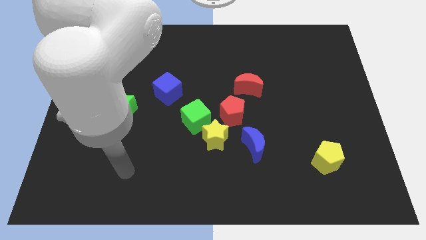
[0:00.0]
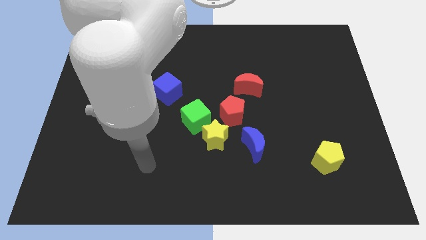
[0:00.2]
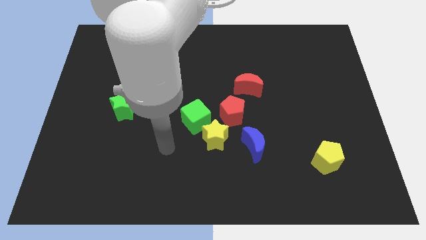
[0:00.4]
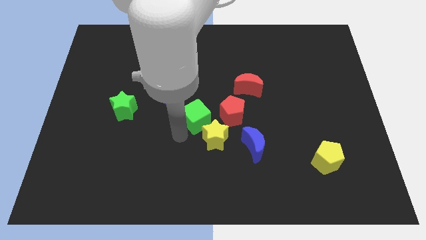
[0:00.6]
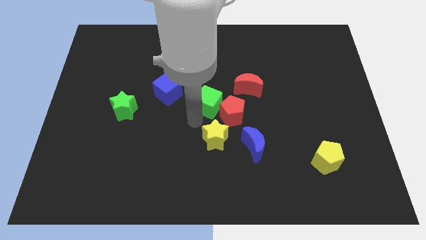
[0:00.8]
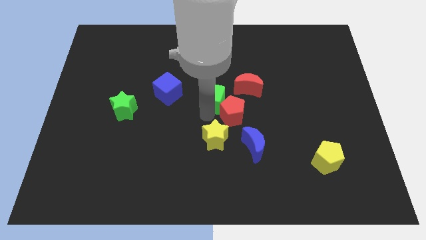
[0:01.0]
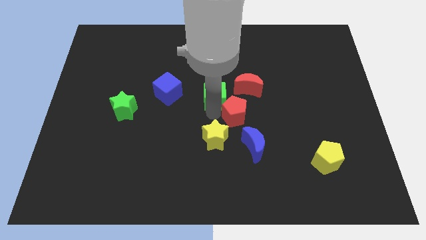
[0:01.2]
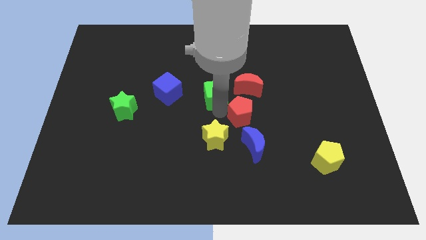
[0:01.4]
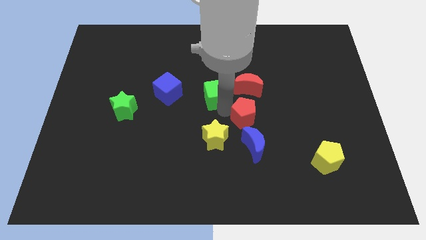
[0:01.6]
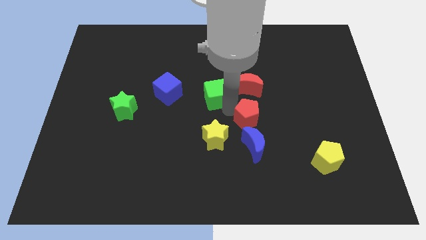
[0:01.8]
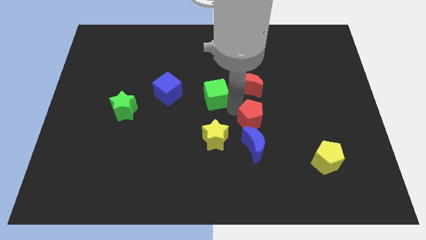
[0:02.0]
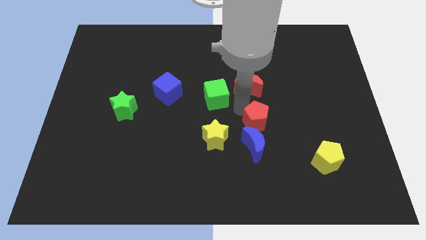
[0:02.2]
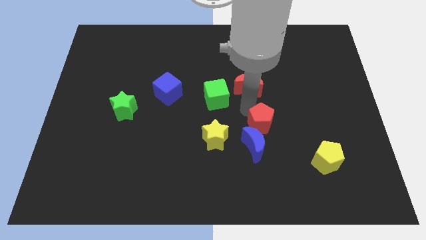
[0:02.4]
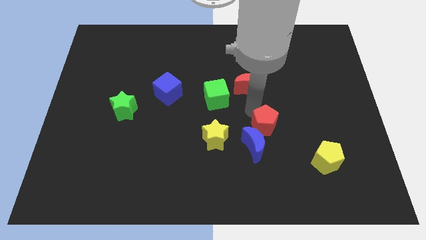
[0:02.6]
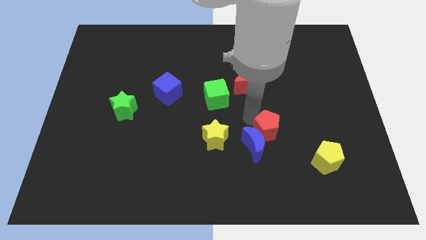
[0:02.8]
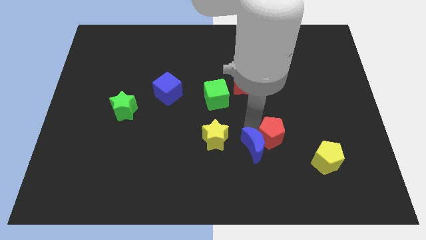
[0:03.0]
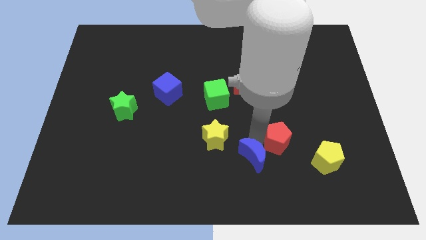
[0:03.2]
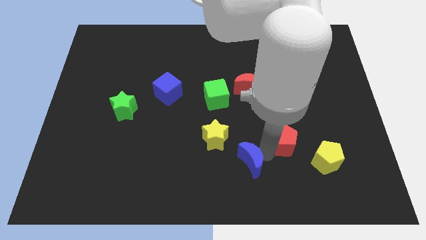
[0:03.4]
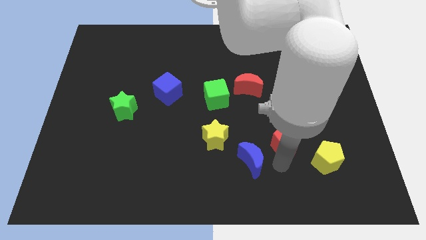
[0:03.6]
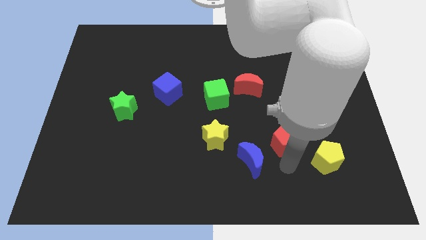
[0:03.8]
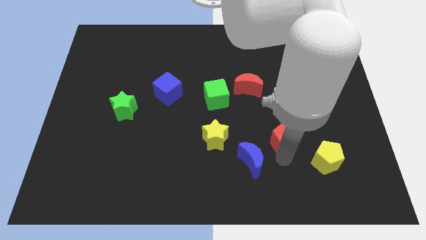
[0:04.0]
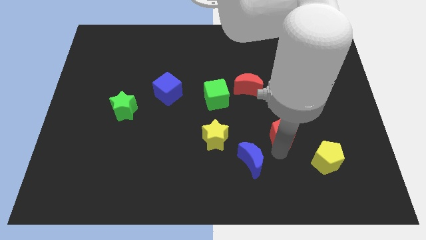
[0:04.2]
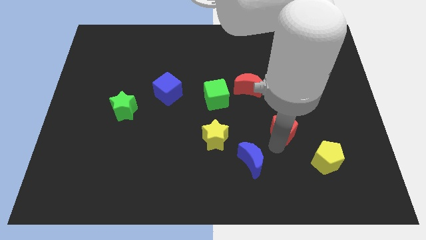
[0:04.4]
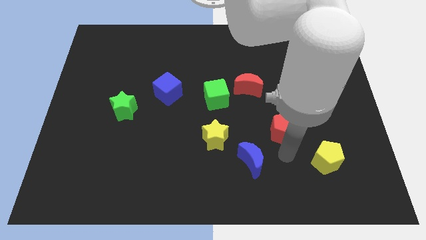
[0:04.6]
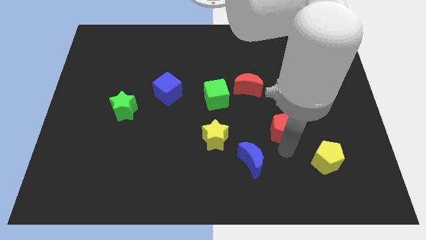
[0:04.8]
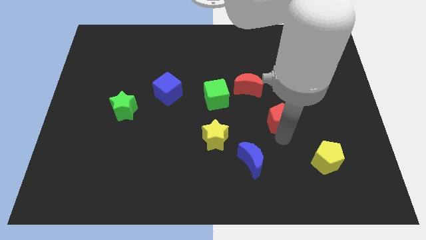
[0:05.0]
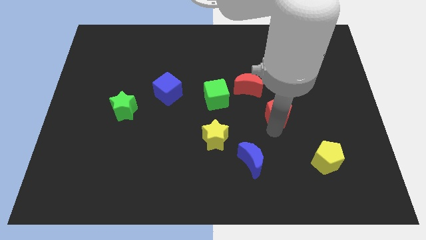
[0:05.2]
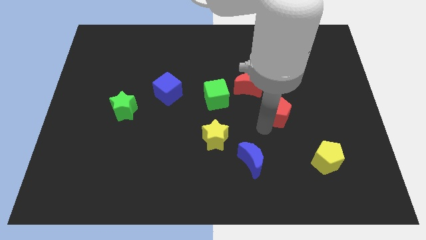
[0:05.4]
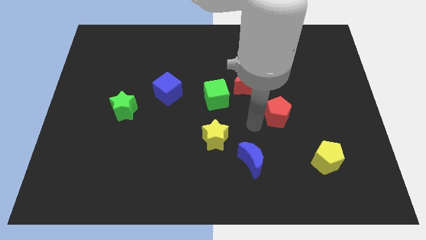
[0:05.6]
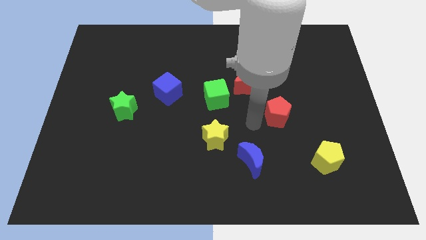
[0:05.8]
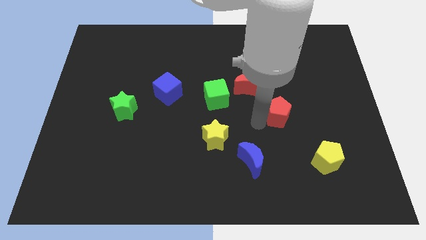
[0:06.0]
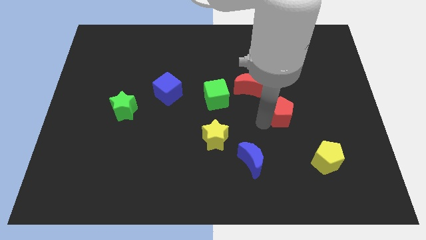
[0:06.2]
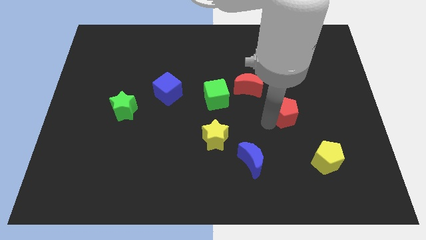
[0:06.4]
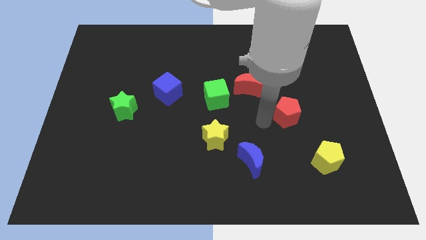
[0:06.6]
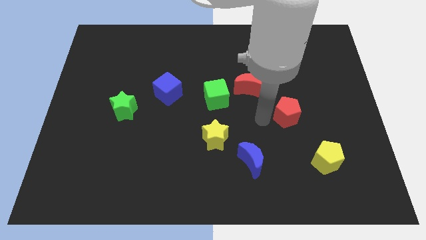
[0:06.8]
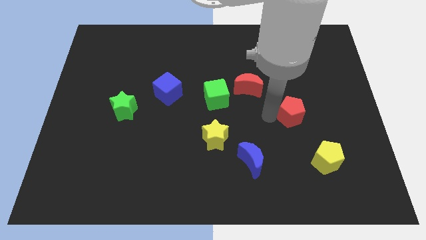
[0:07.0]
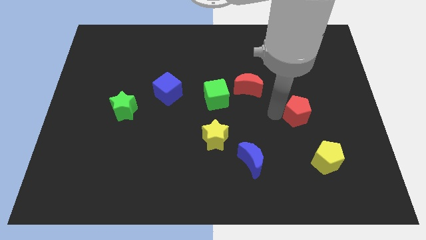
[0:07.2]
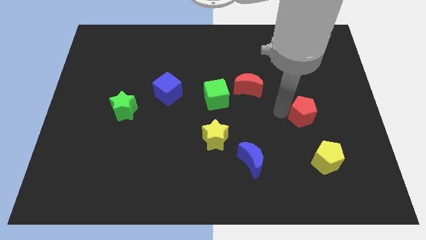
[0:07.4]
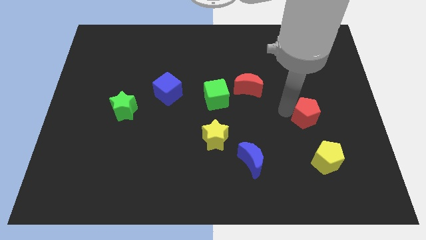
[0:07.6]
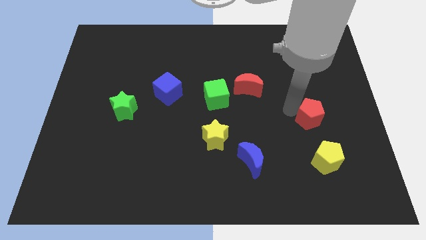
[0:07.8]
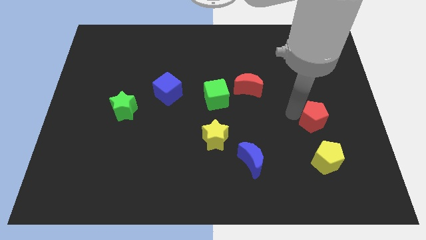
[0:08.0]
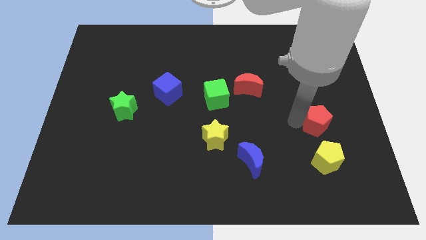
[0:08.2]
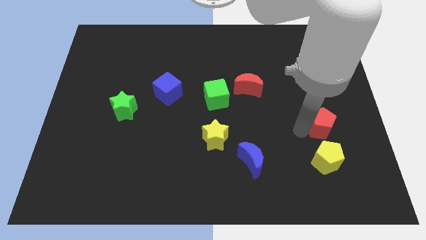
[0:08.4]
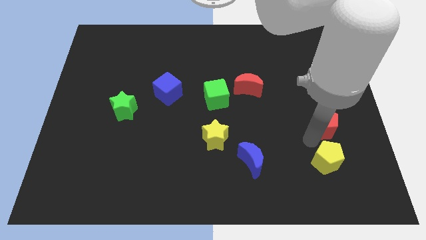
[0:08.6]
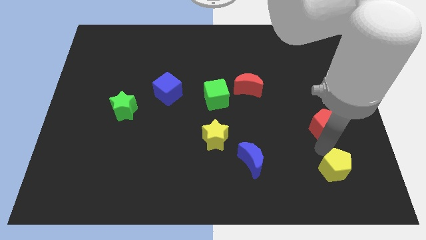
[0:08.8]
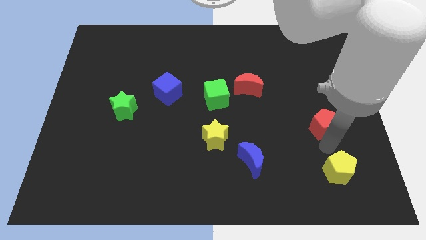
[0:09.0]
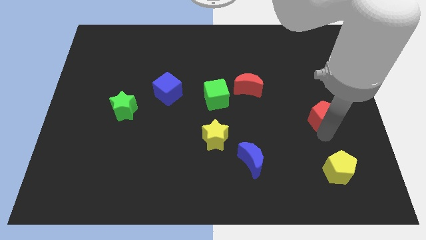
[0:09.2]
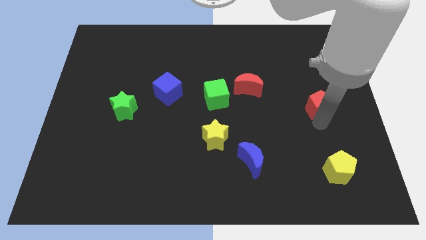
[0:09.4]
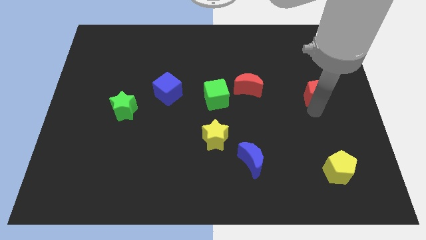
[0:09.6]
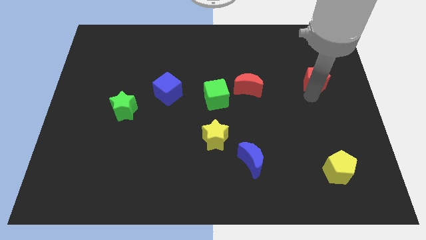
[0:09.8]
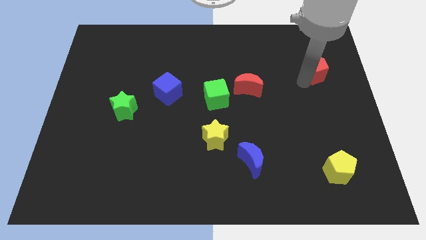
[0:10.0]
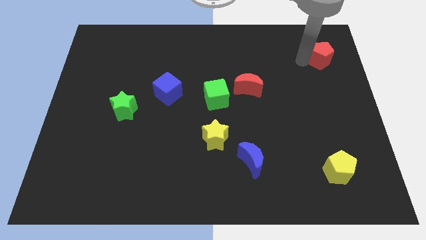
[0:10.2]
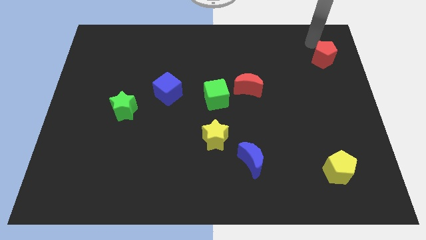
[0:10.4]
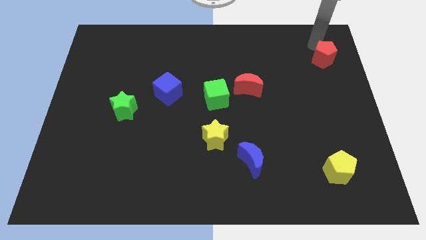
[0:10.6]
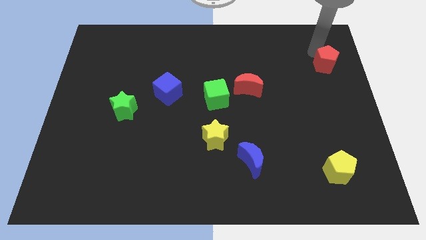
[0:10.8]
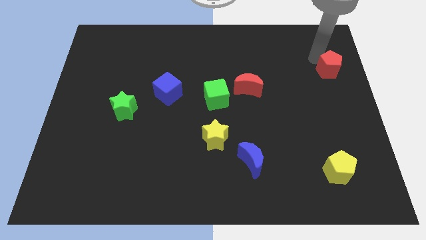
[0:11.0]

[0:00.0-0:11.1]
put the red pentagon to the right side of the board

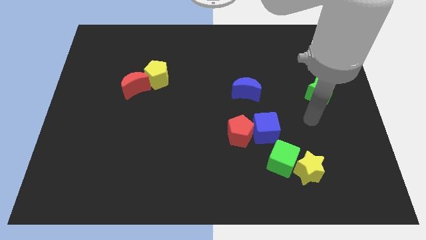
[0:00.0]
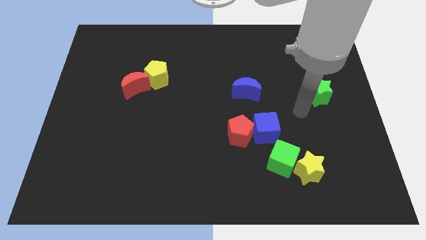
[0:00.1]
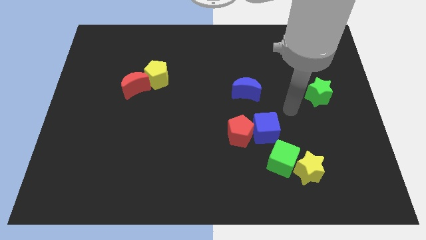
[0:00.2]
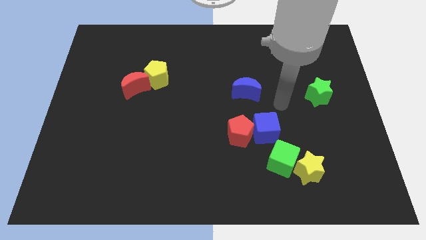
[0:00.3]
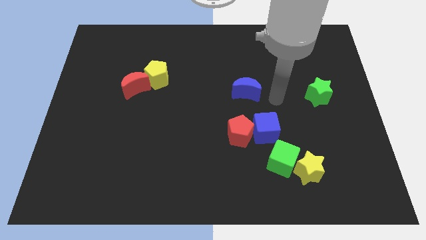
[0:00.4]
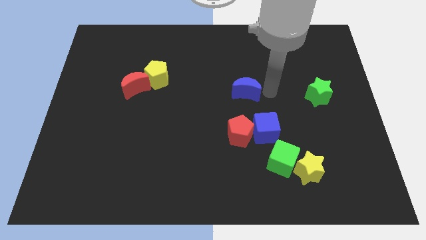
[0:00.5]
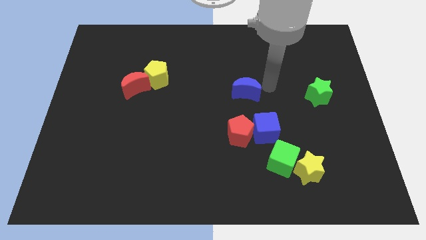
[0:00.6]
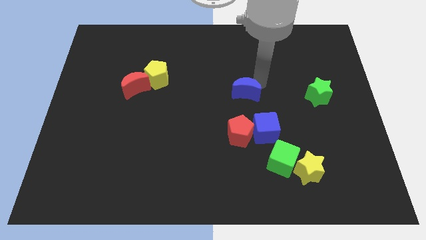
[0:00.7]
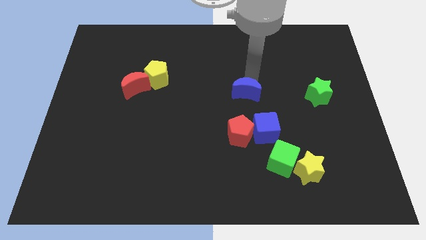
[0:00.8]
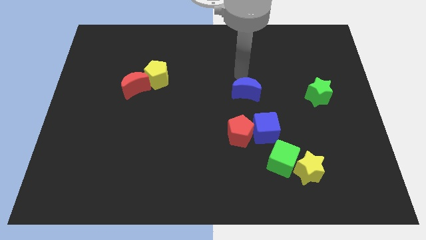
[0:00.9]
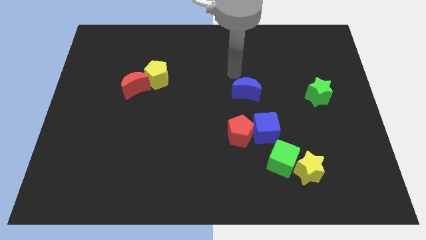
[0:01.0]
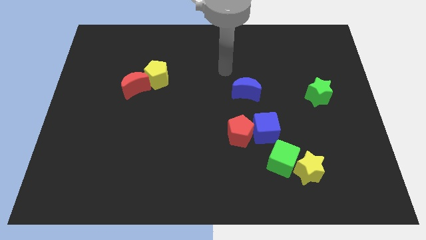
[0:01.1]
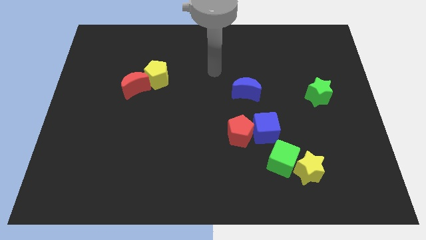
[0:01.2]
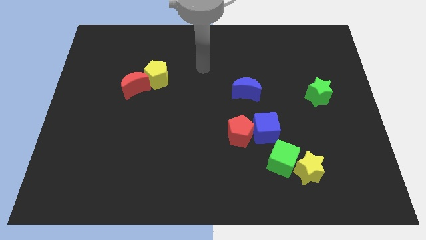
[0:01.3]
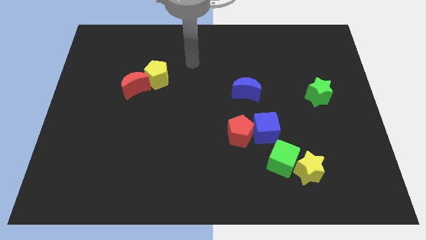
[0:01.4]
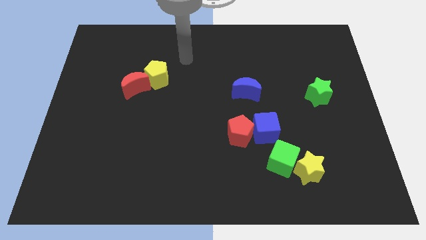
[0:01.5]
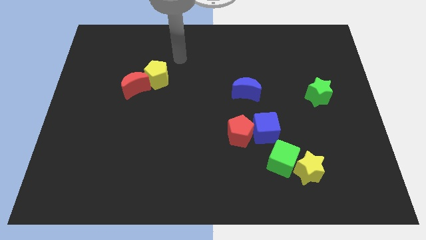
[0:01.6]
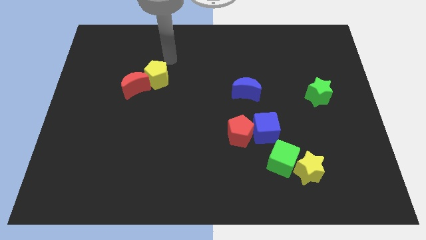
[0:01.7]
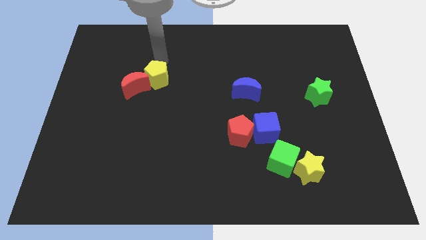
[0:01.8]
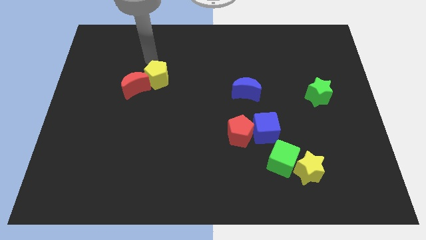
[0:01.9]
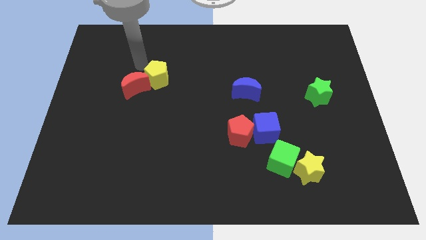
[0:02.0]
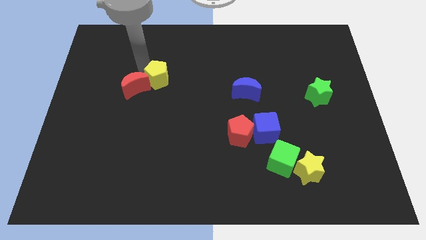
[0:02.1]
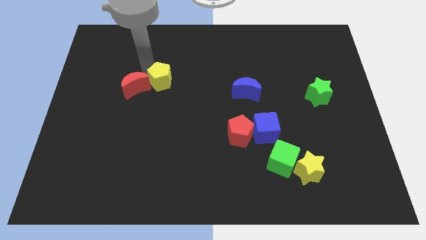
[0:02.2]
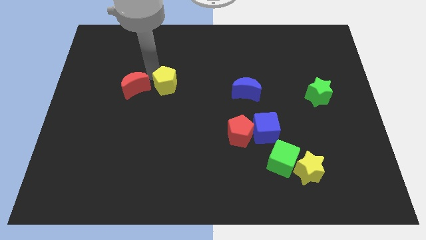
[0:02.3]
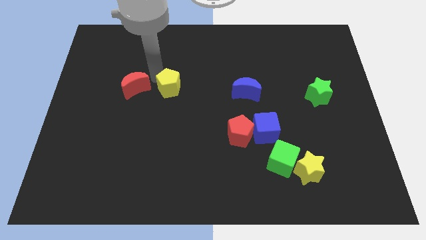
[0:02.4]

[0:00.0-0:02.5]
put the yellow pentagon to the middle
